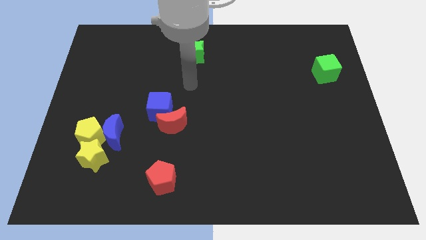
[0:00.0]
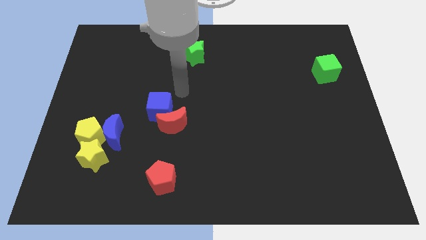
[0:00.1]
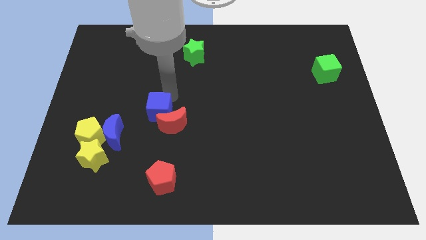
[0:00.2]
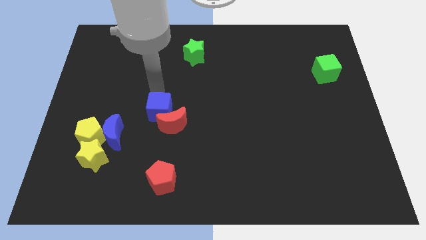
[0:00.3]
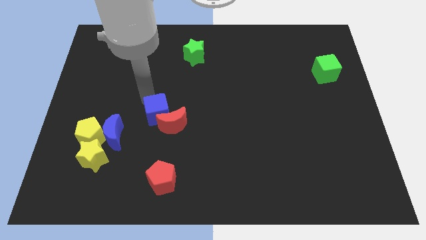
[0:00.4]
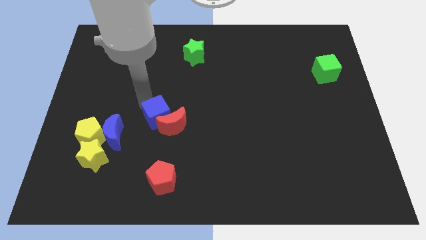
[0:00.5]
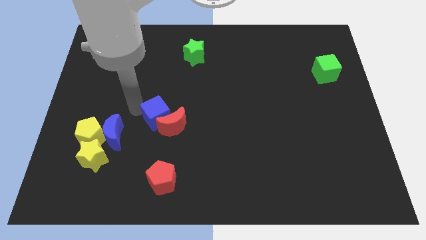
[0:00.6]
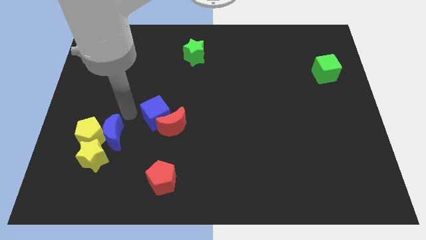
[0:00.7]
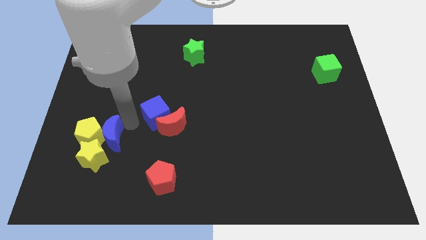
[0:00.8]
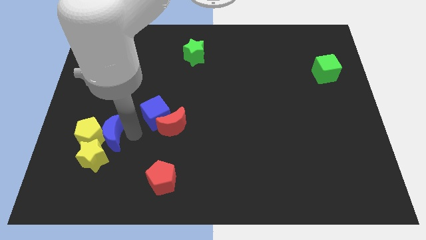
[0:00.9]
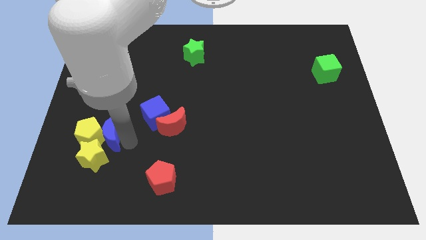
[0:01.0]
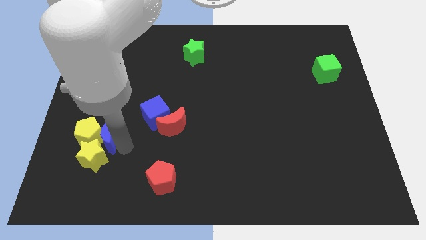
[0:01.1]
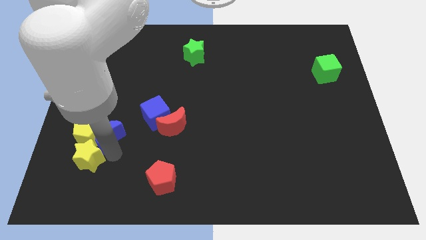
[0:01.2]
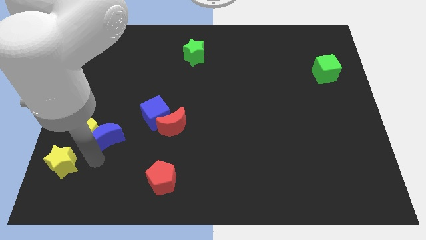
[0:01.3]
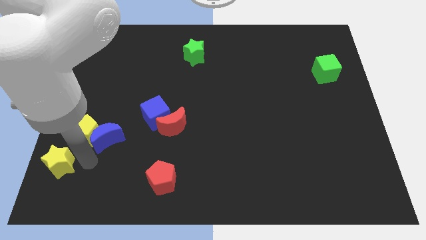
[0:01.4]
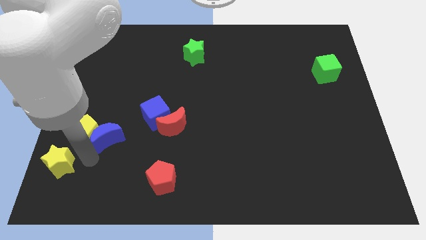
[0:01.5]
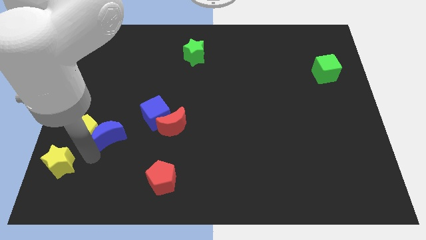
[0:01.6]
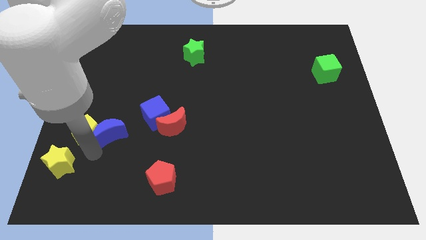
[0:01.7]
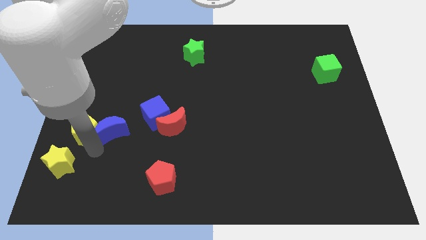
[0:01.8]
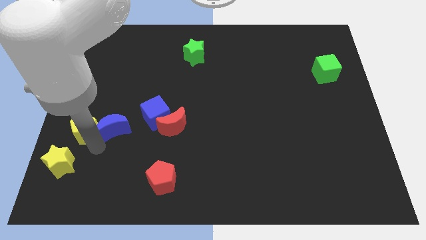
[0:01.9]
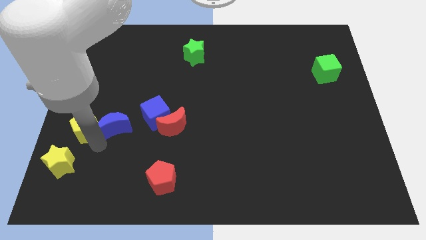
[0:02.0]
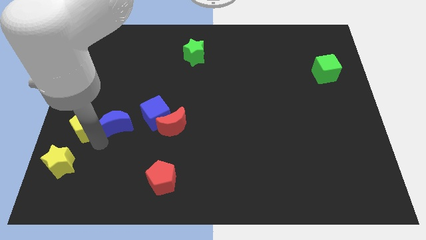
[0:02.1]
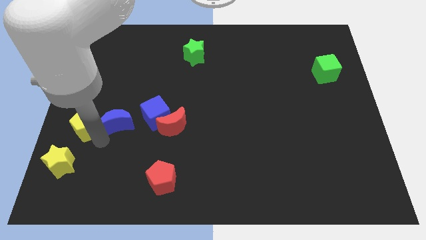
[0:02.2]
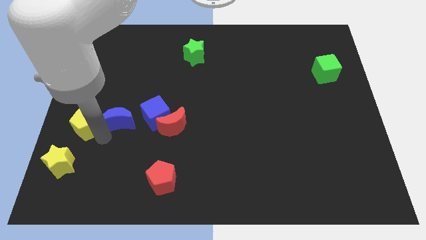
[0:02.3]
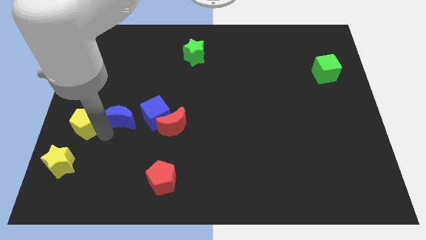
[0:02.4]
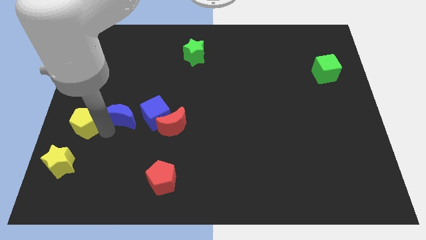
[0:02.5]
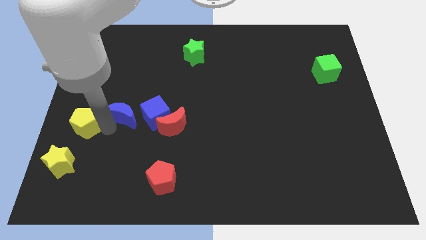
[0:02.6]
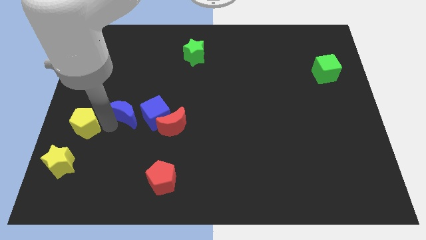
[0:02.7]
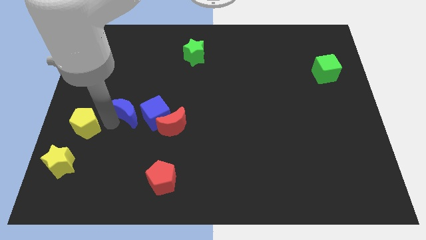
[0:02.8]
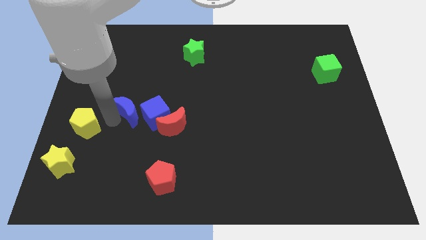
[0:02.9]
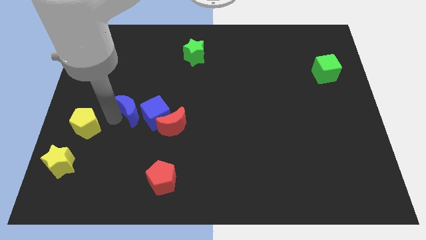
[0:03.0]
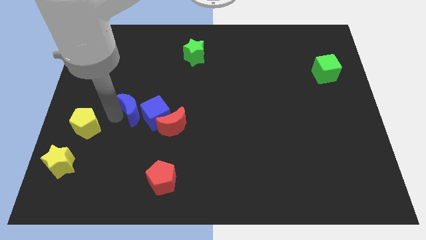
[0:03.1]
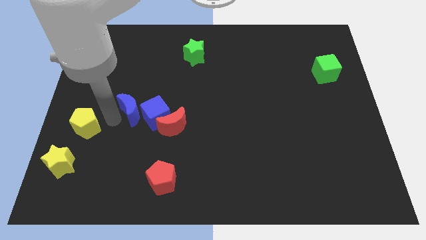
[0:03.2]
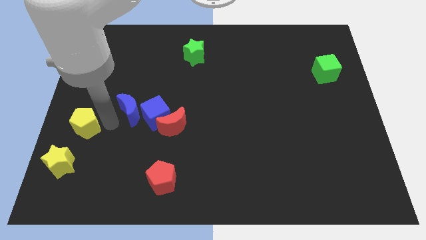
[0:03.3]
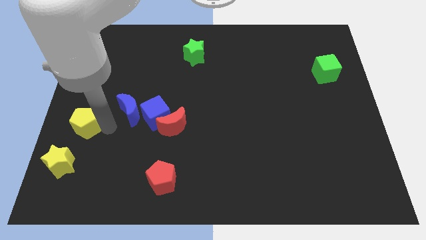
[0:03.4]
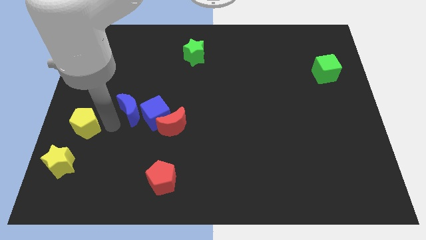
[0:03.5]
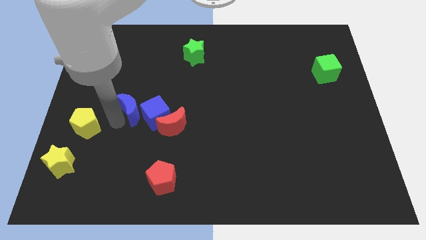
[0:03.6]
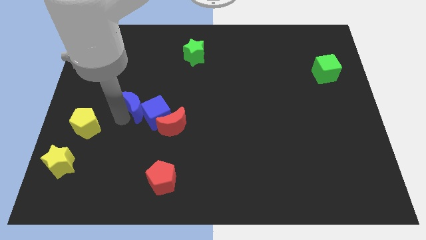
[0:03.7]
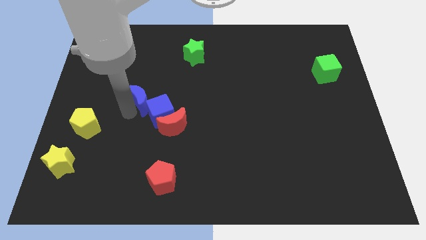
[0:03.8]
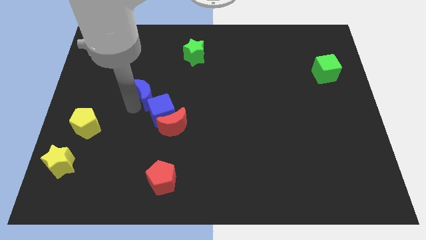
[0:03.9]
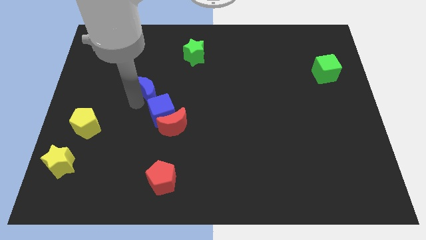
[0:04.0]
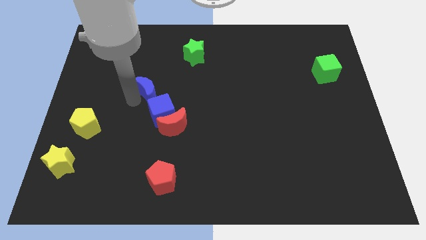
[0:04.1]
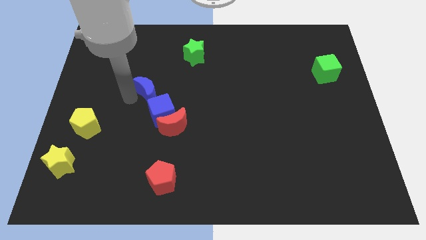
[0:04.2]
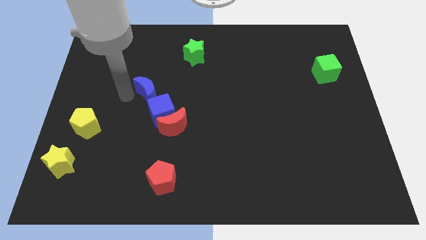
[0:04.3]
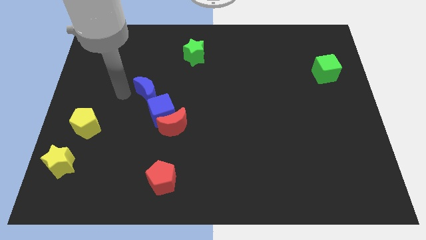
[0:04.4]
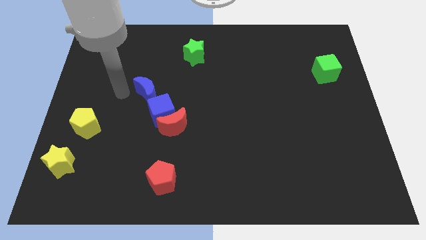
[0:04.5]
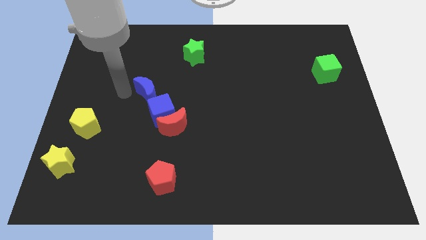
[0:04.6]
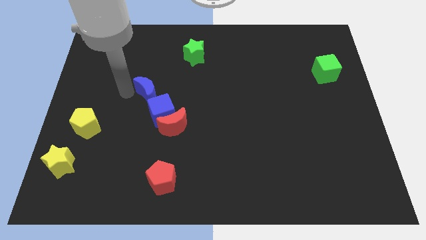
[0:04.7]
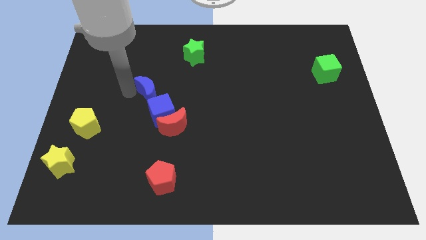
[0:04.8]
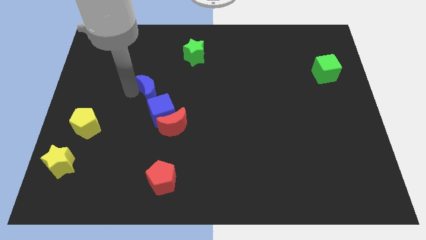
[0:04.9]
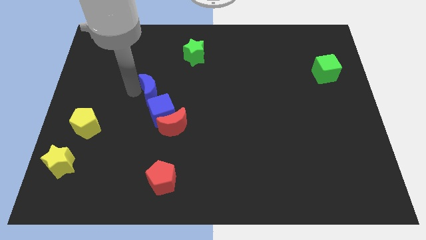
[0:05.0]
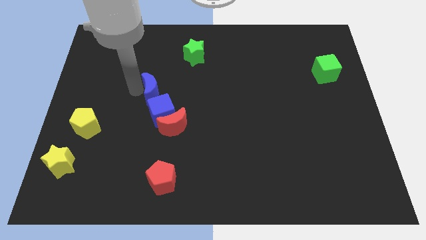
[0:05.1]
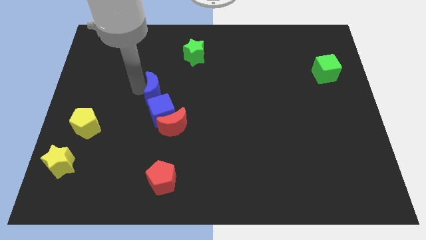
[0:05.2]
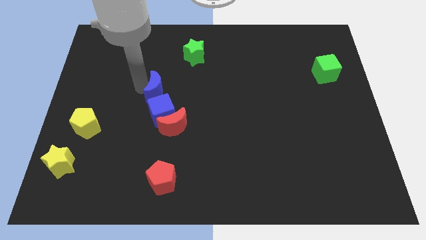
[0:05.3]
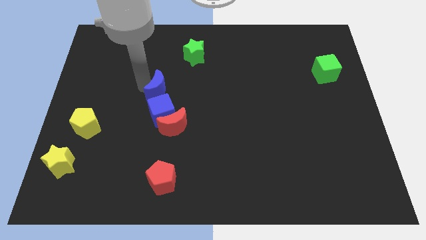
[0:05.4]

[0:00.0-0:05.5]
move the blue moon above the red moon

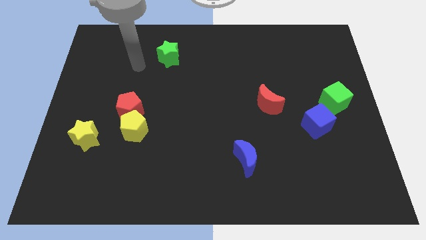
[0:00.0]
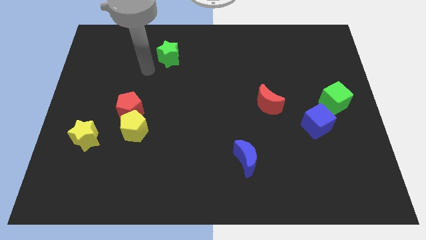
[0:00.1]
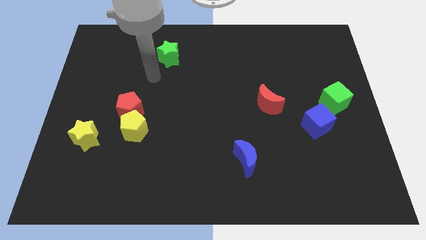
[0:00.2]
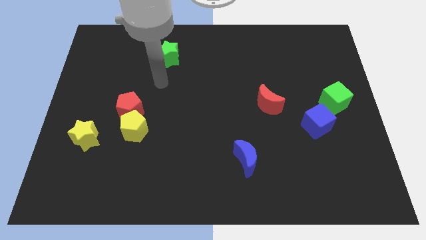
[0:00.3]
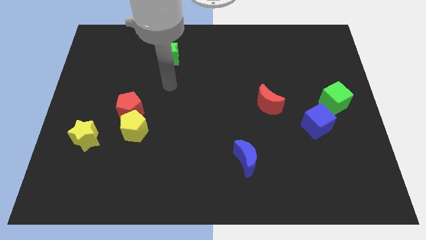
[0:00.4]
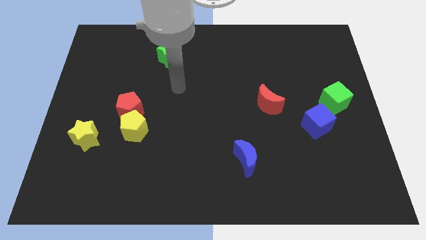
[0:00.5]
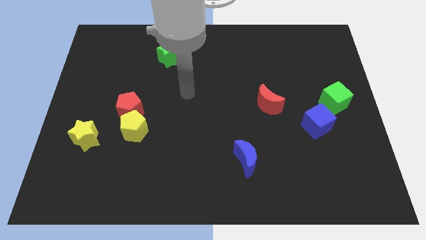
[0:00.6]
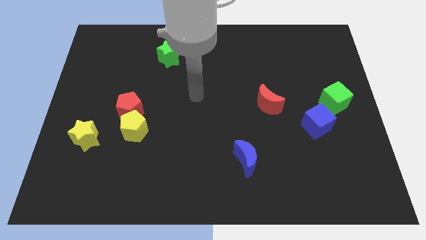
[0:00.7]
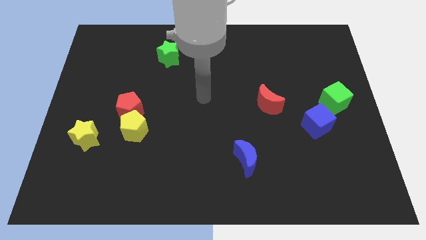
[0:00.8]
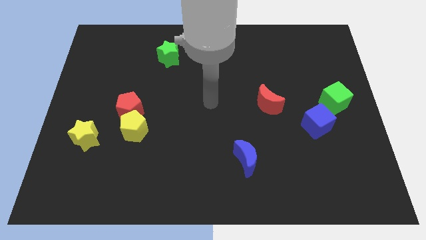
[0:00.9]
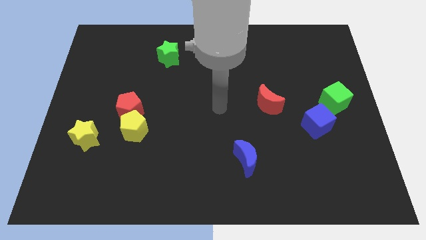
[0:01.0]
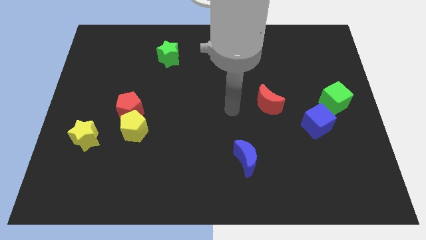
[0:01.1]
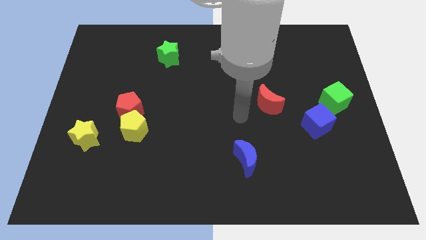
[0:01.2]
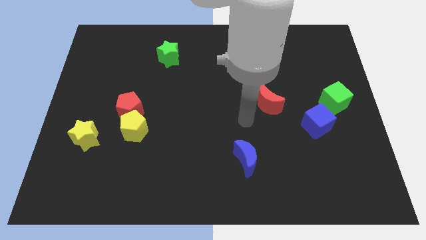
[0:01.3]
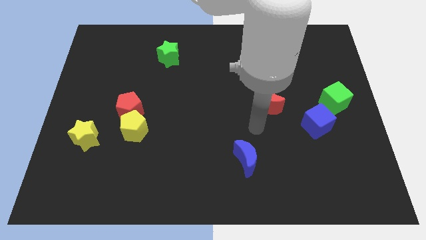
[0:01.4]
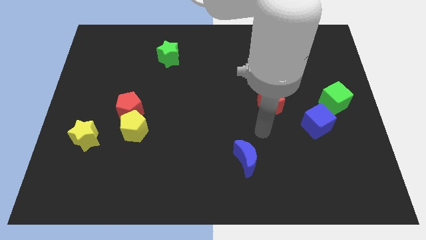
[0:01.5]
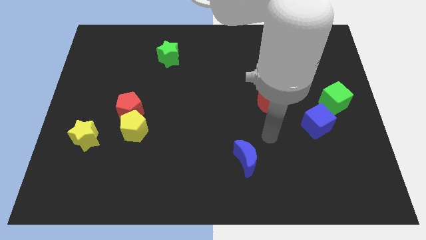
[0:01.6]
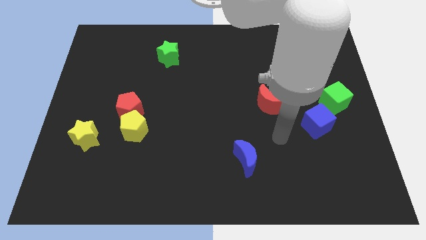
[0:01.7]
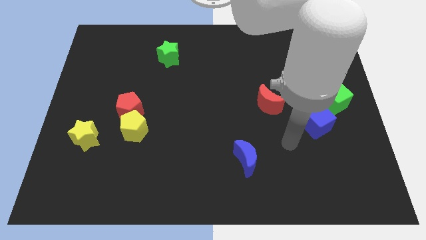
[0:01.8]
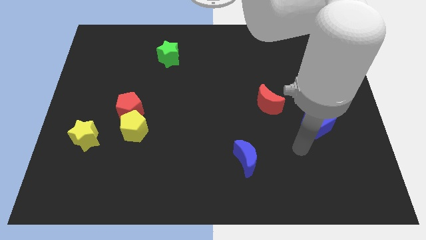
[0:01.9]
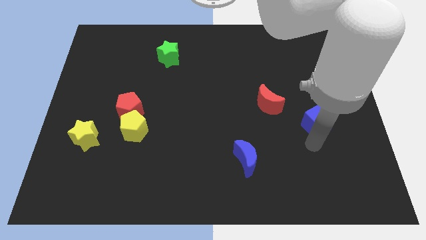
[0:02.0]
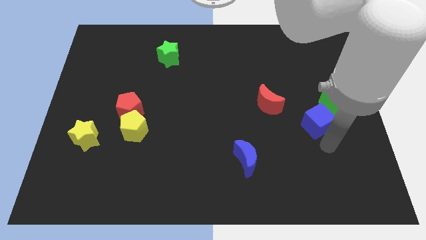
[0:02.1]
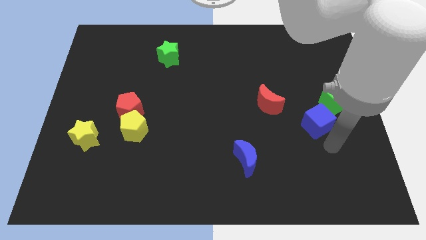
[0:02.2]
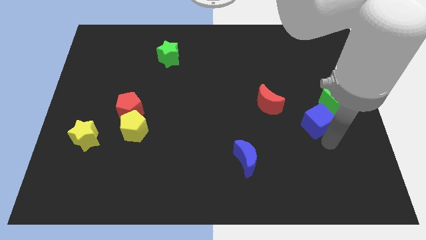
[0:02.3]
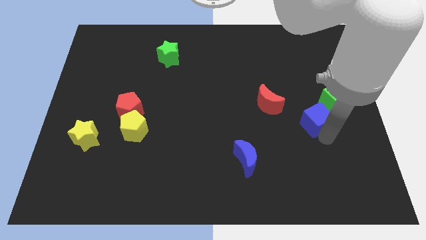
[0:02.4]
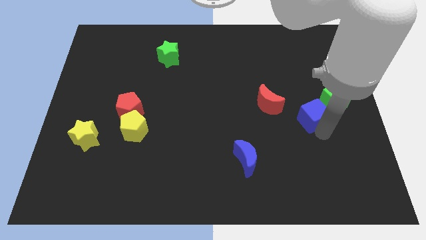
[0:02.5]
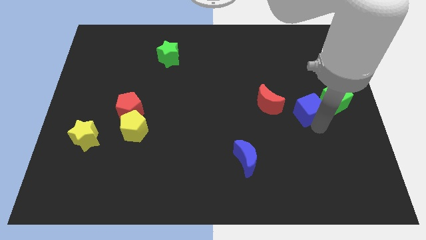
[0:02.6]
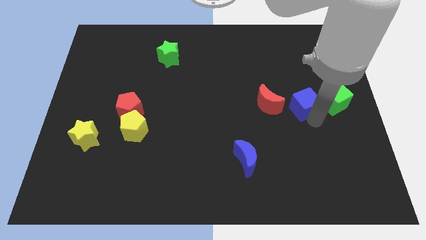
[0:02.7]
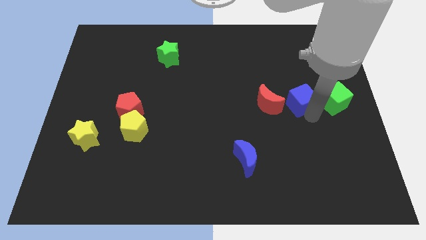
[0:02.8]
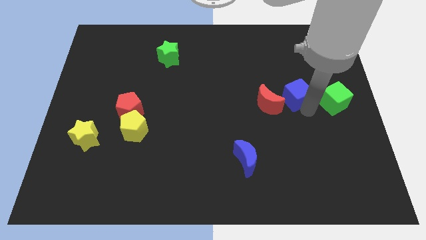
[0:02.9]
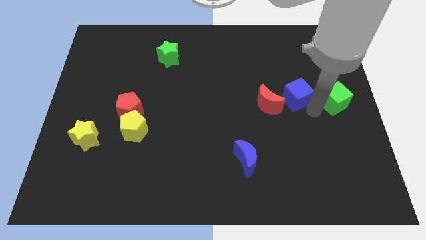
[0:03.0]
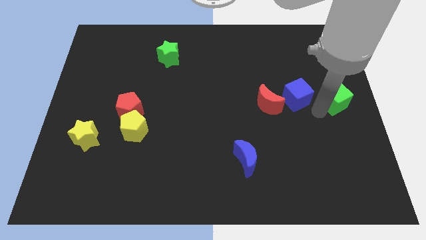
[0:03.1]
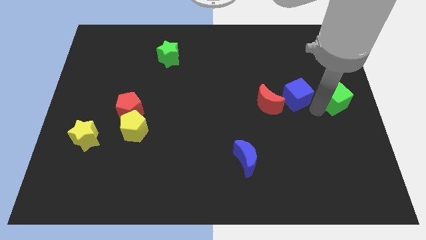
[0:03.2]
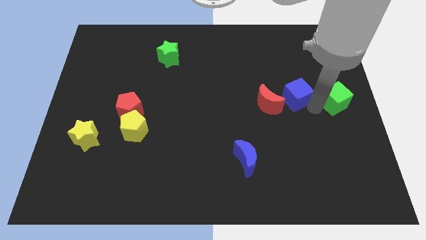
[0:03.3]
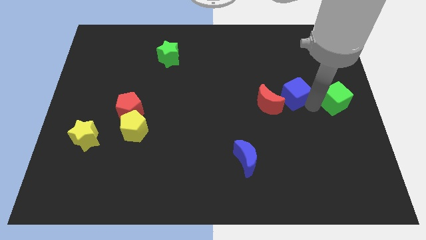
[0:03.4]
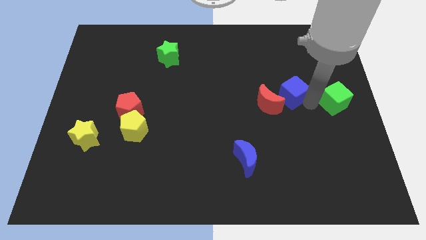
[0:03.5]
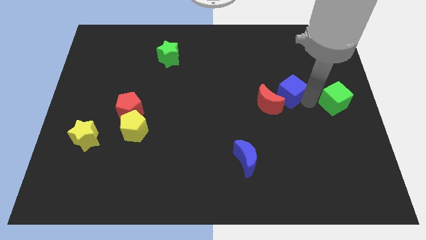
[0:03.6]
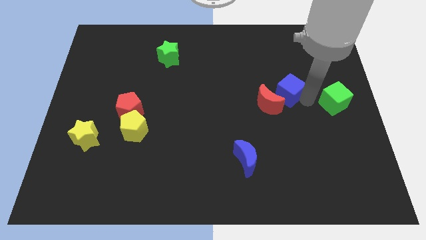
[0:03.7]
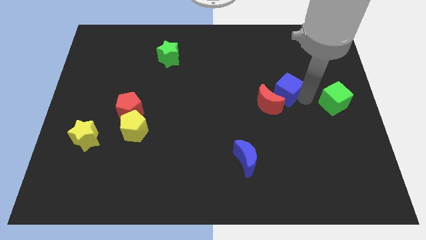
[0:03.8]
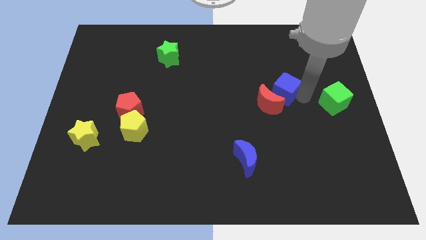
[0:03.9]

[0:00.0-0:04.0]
put the blue cube to the top side of the red moon
